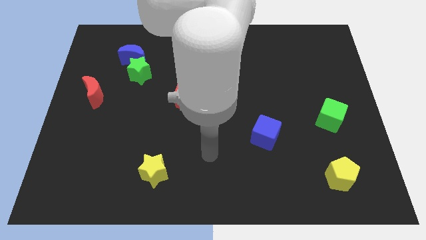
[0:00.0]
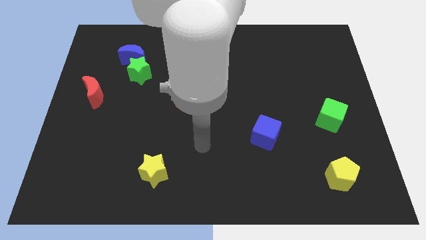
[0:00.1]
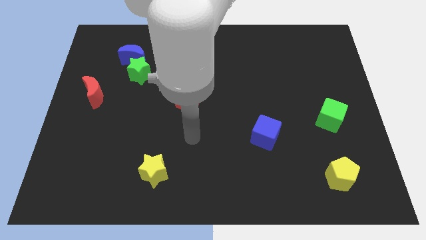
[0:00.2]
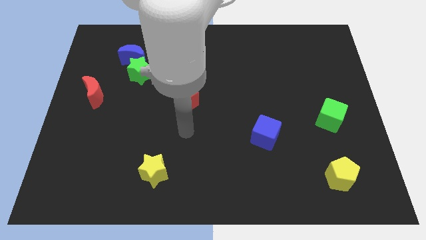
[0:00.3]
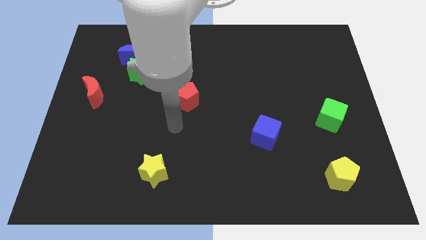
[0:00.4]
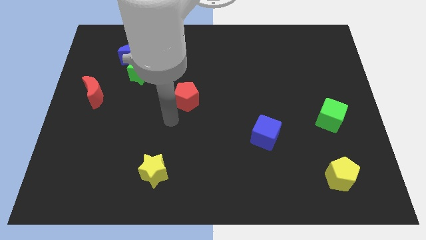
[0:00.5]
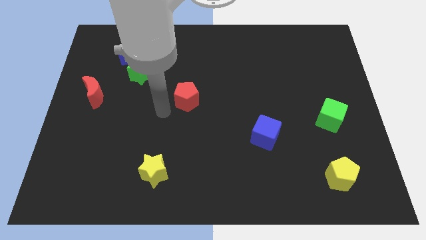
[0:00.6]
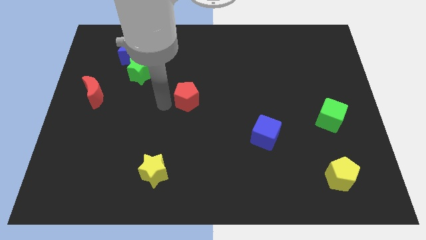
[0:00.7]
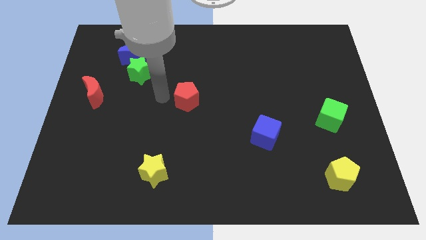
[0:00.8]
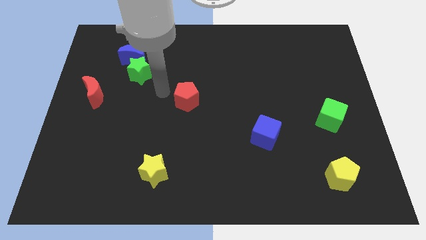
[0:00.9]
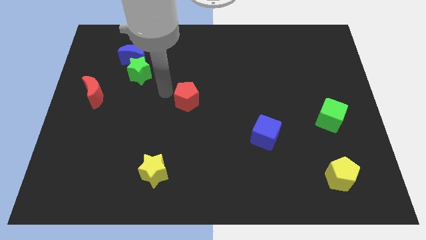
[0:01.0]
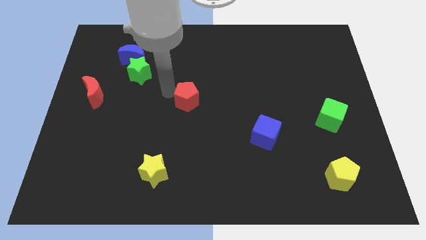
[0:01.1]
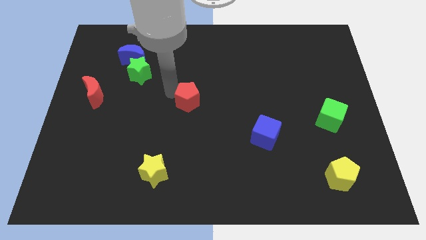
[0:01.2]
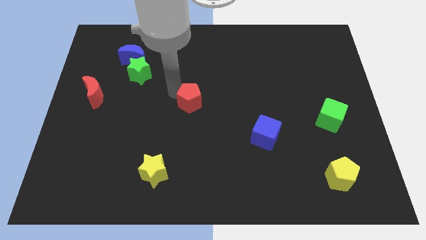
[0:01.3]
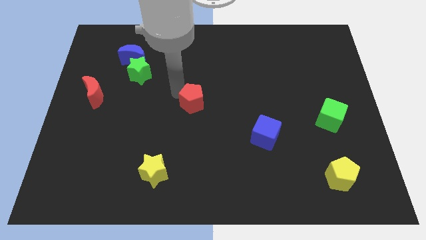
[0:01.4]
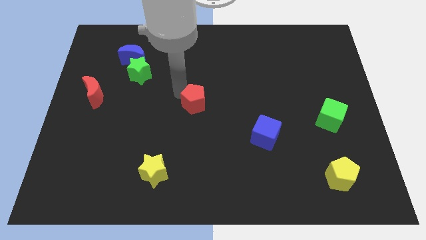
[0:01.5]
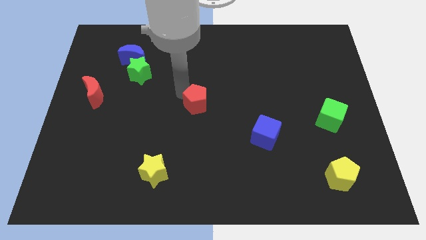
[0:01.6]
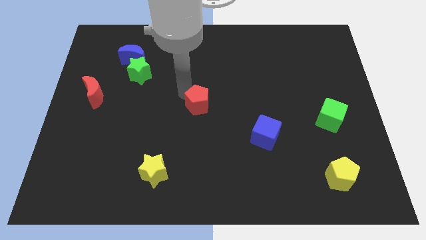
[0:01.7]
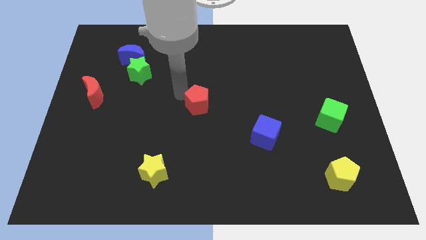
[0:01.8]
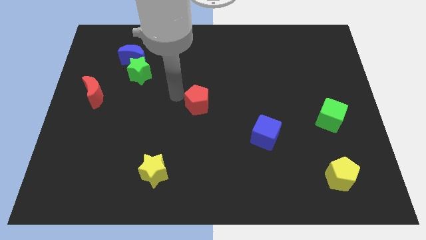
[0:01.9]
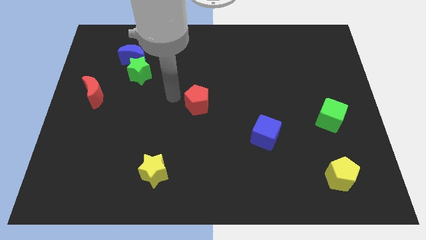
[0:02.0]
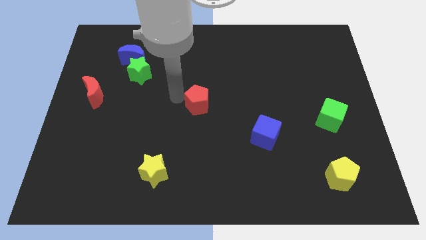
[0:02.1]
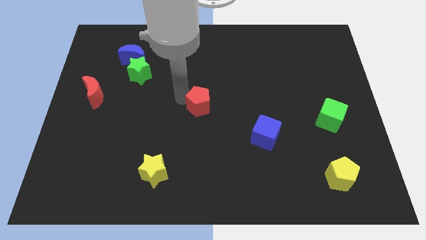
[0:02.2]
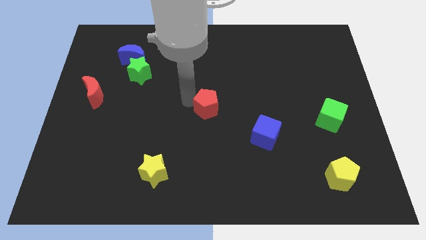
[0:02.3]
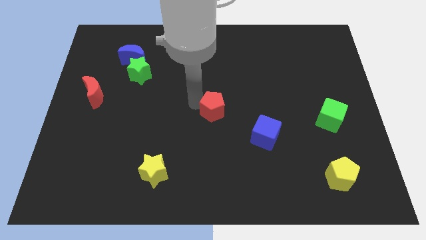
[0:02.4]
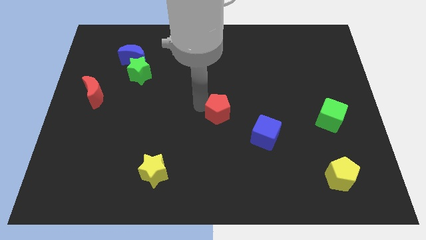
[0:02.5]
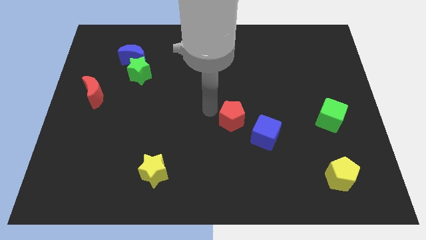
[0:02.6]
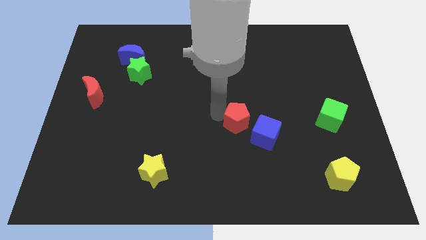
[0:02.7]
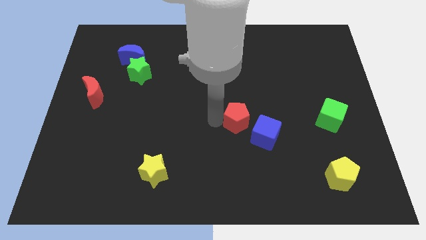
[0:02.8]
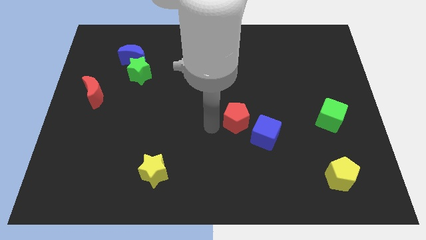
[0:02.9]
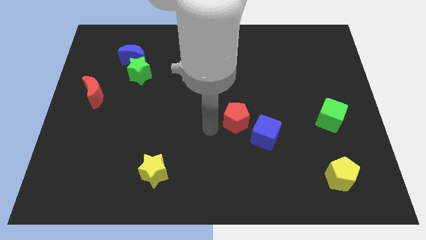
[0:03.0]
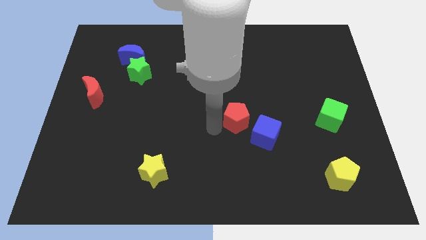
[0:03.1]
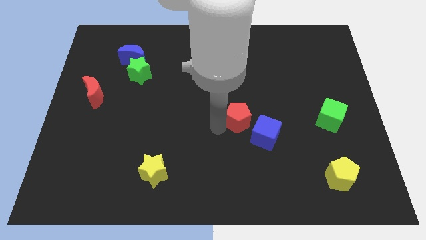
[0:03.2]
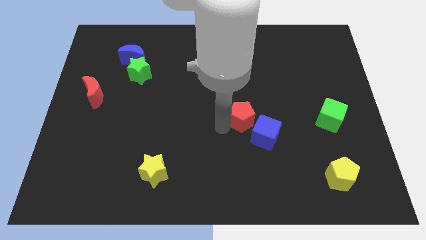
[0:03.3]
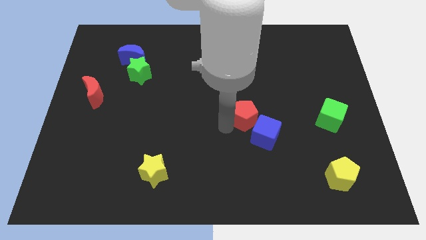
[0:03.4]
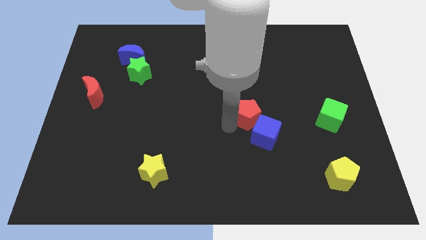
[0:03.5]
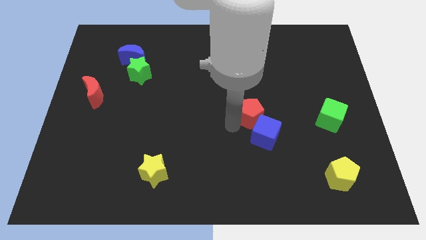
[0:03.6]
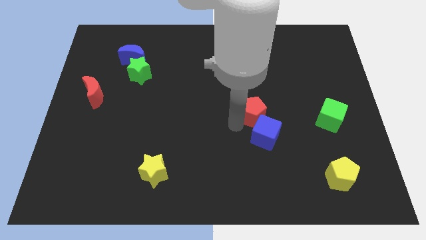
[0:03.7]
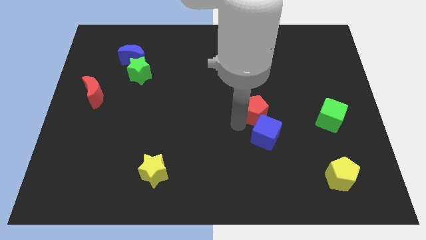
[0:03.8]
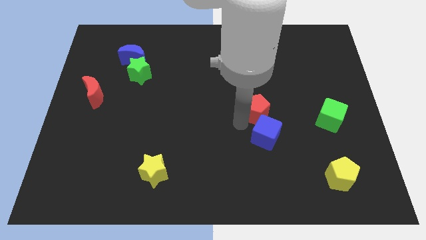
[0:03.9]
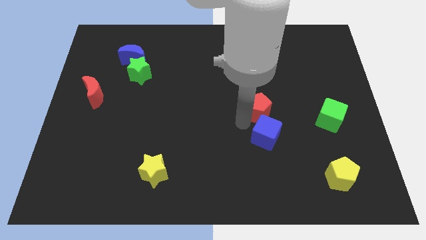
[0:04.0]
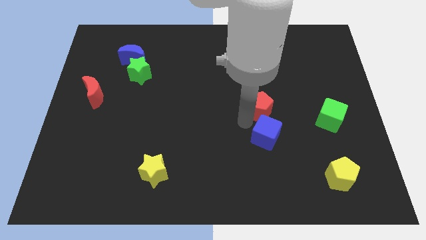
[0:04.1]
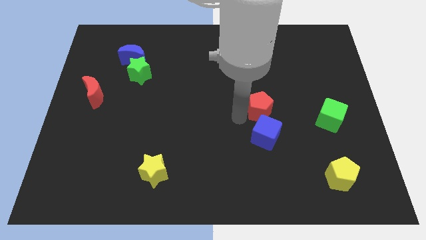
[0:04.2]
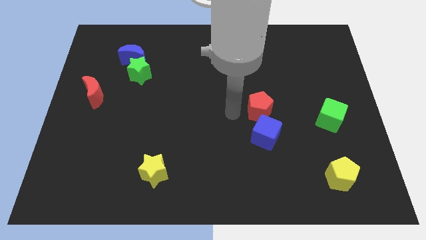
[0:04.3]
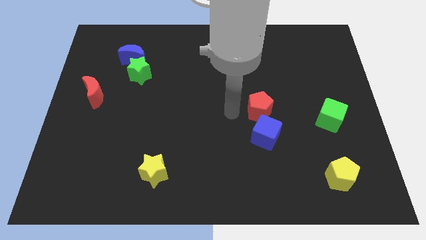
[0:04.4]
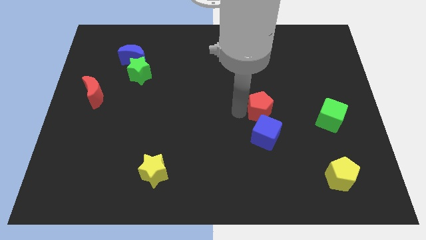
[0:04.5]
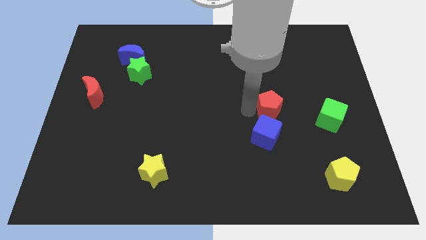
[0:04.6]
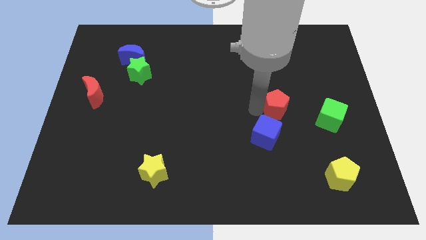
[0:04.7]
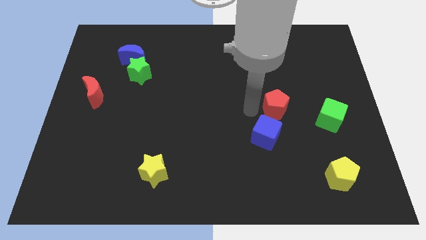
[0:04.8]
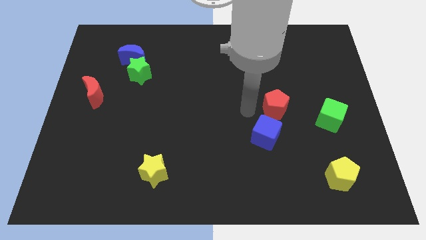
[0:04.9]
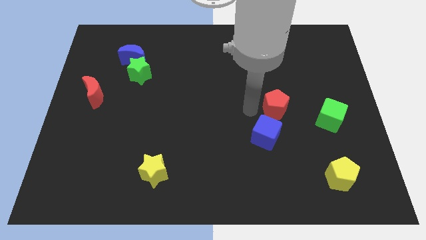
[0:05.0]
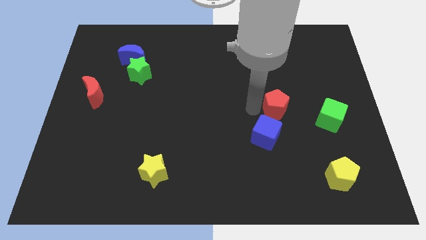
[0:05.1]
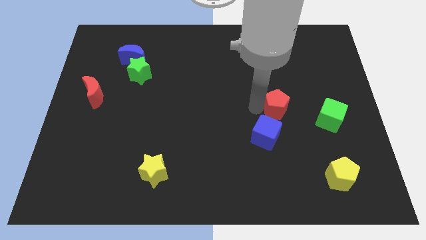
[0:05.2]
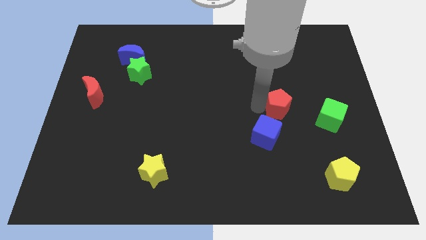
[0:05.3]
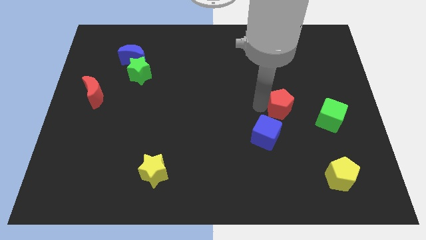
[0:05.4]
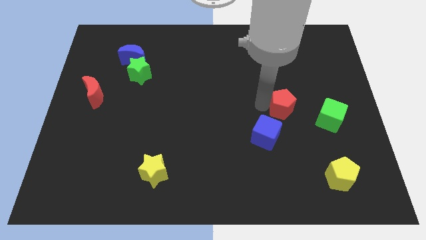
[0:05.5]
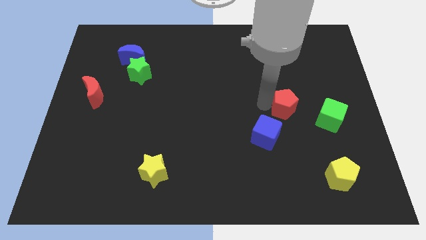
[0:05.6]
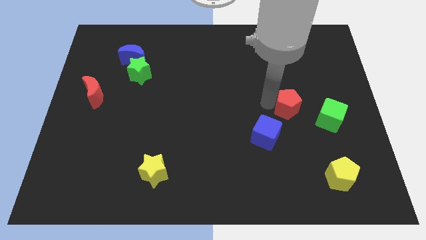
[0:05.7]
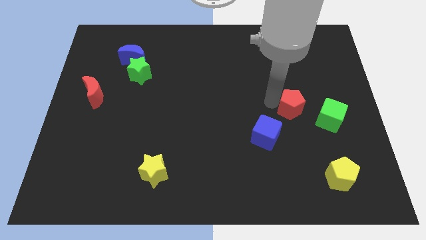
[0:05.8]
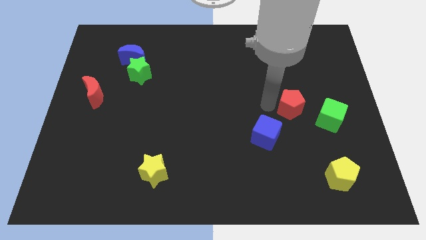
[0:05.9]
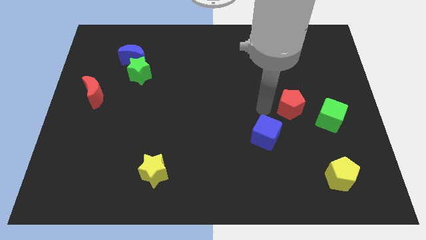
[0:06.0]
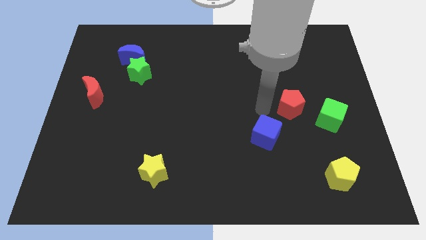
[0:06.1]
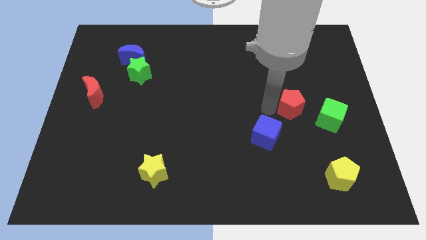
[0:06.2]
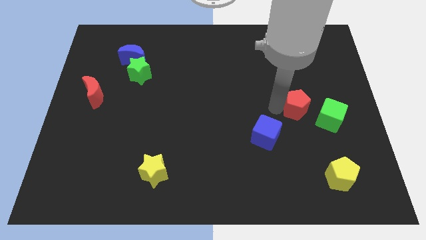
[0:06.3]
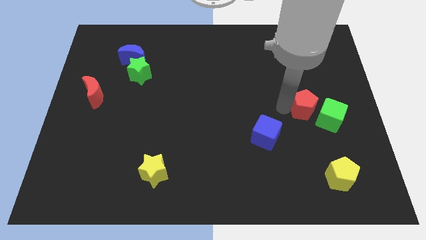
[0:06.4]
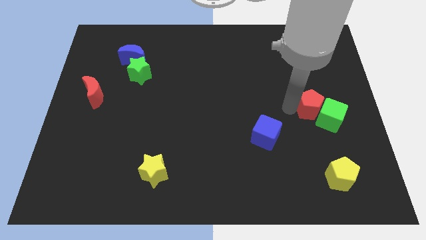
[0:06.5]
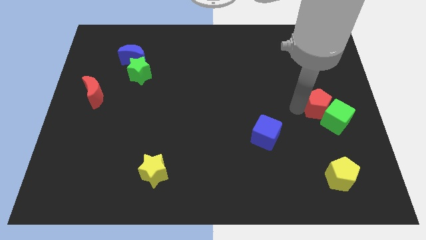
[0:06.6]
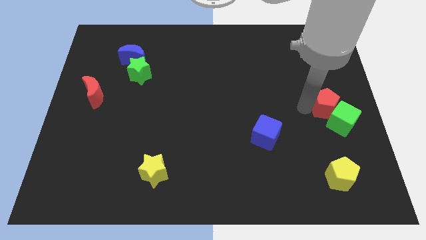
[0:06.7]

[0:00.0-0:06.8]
move the red pentagon to the right side of the board
